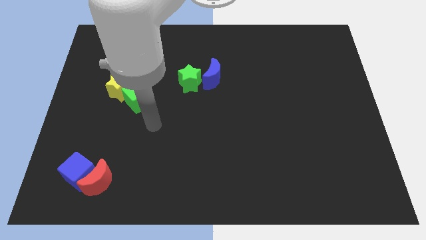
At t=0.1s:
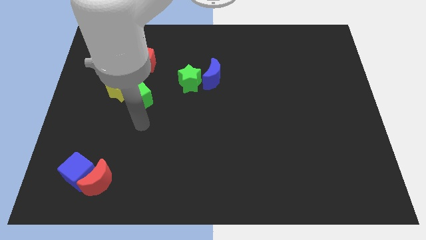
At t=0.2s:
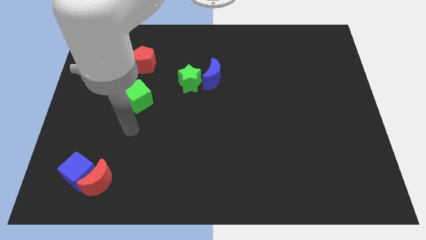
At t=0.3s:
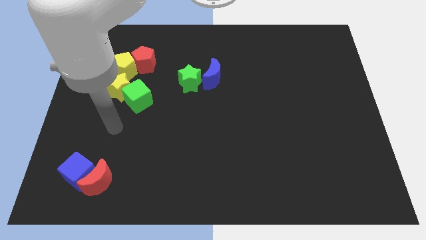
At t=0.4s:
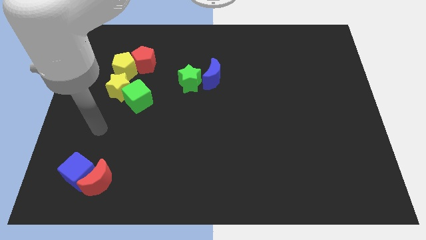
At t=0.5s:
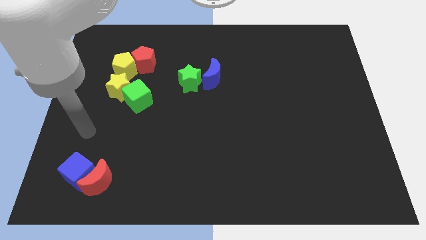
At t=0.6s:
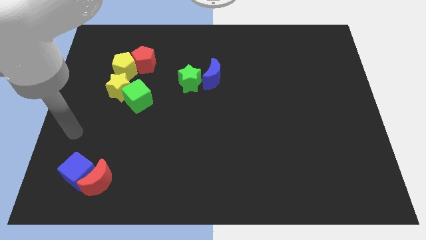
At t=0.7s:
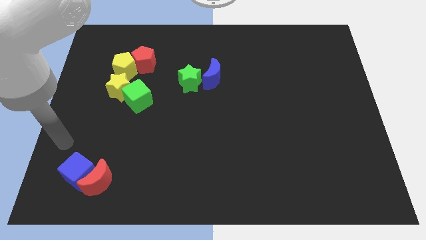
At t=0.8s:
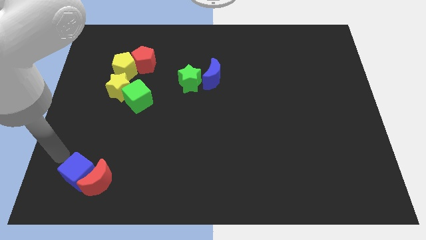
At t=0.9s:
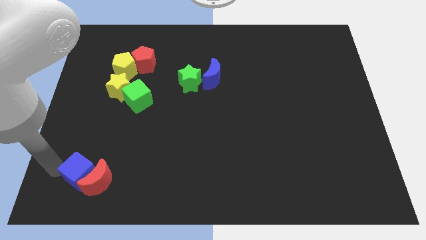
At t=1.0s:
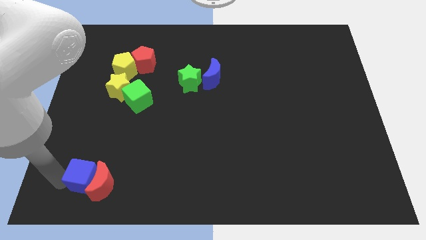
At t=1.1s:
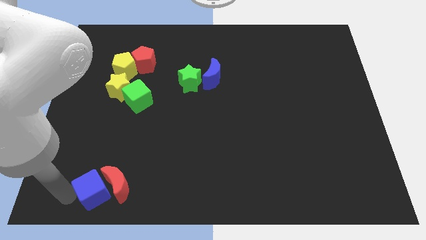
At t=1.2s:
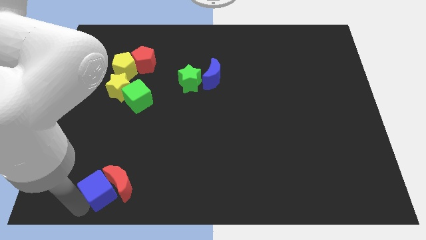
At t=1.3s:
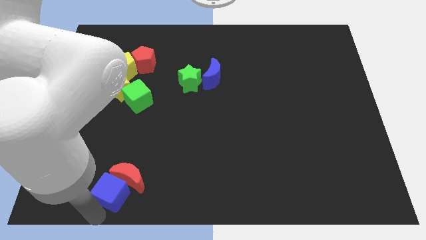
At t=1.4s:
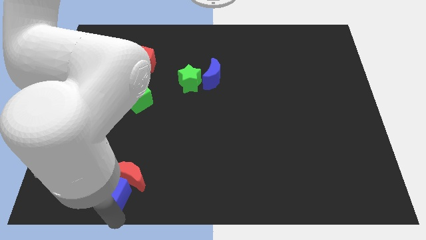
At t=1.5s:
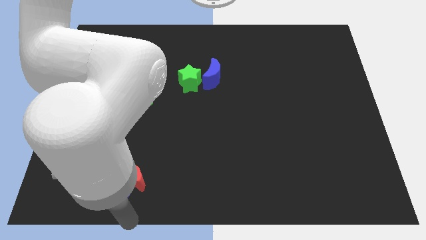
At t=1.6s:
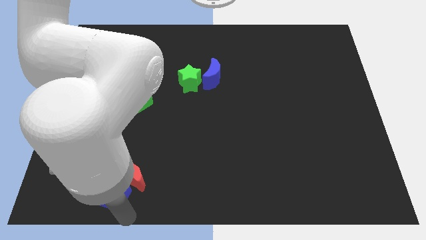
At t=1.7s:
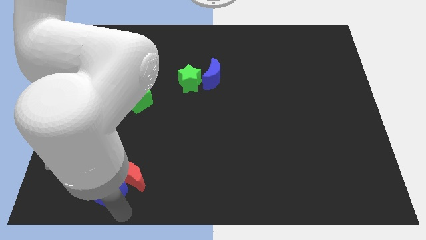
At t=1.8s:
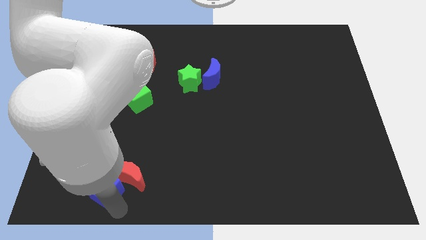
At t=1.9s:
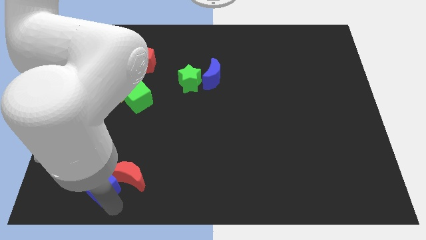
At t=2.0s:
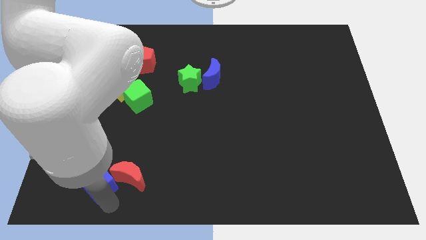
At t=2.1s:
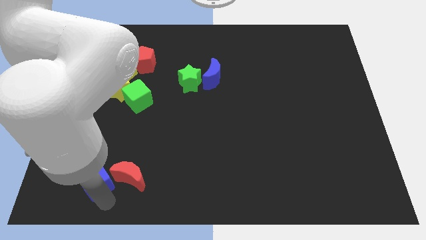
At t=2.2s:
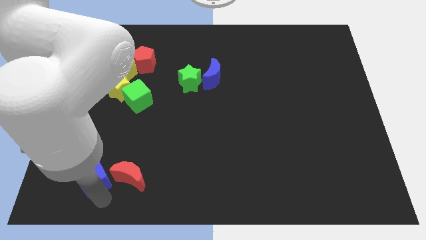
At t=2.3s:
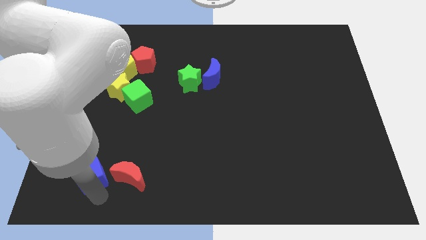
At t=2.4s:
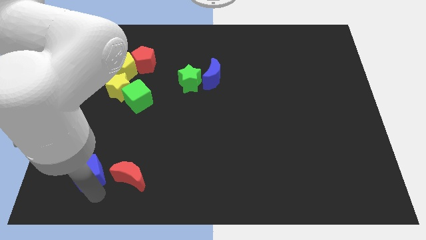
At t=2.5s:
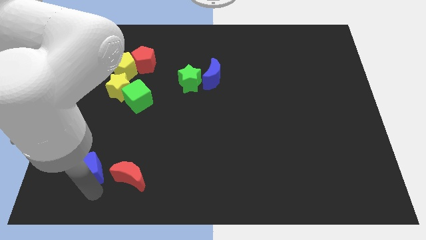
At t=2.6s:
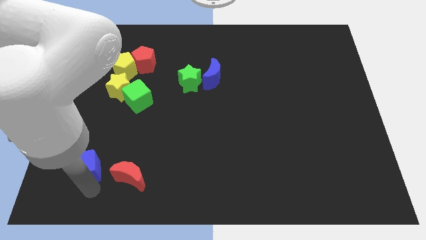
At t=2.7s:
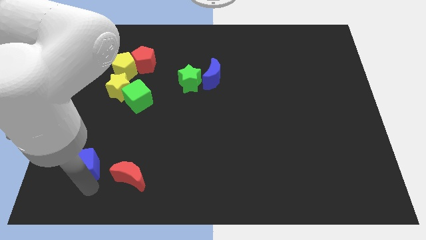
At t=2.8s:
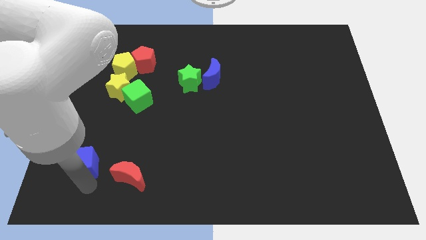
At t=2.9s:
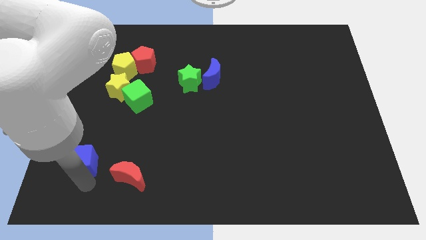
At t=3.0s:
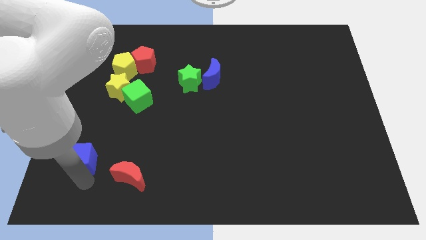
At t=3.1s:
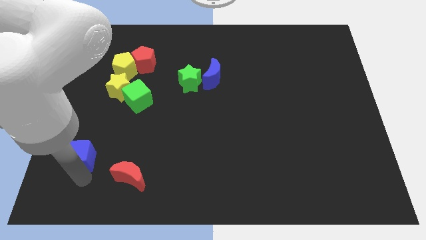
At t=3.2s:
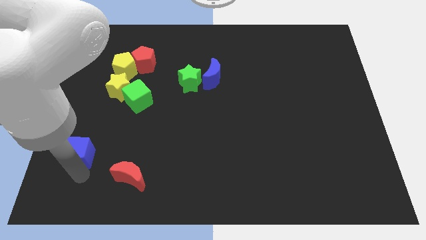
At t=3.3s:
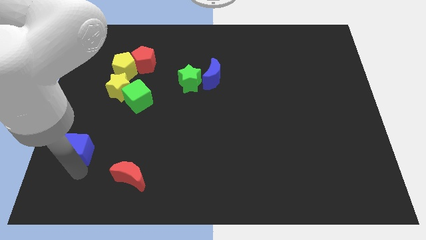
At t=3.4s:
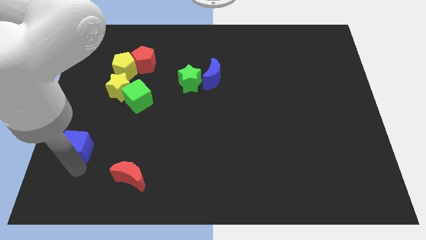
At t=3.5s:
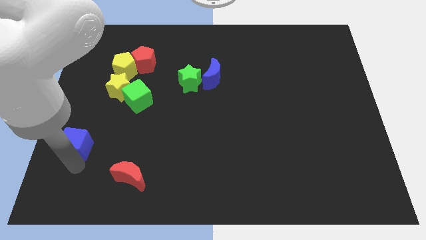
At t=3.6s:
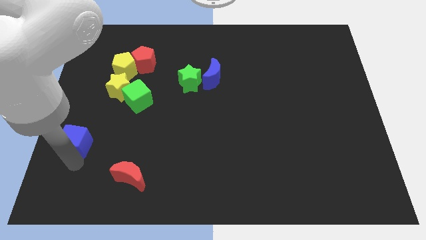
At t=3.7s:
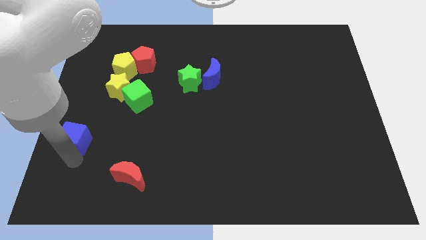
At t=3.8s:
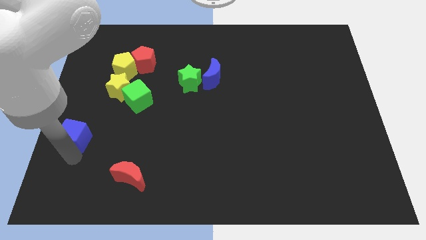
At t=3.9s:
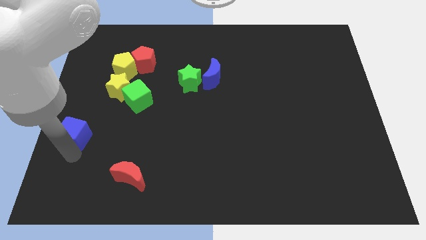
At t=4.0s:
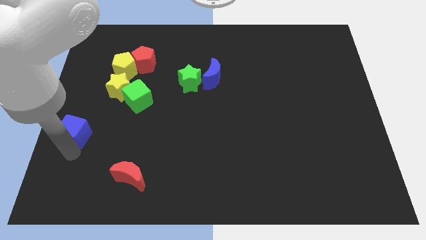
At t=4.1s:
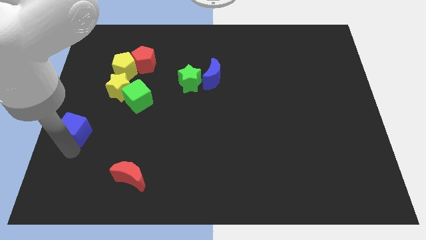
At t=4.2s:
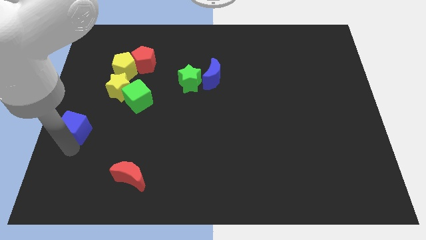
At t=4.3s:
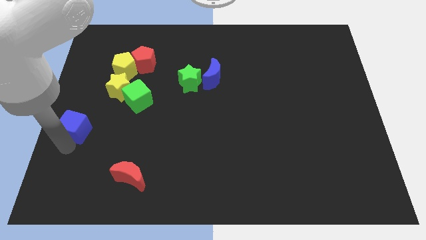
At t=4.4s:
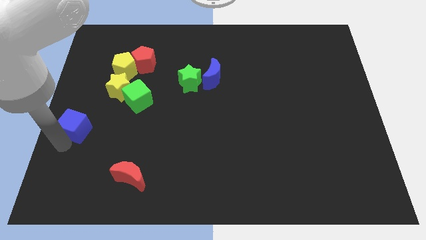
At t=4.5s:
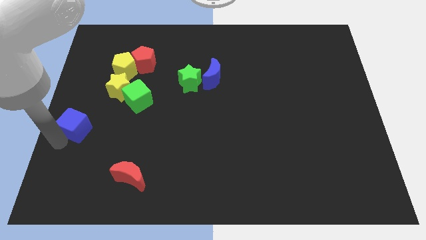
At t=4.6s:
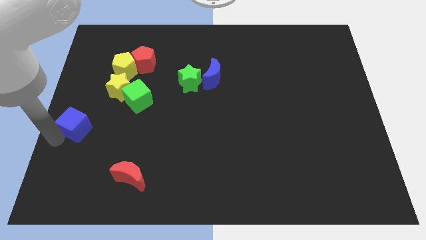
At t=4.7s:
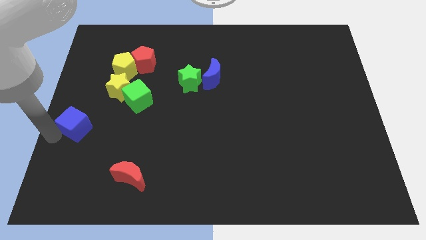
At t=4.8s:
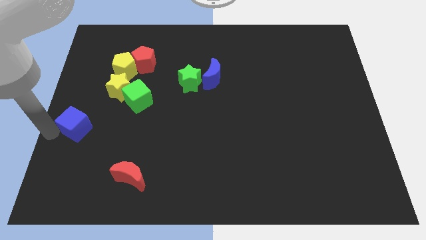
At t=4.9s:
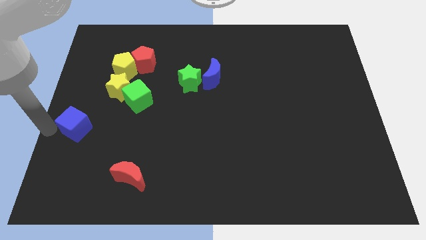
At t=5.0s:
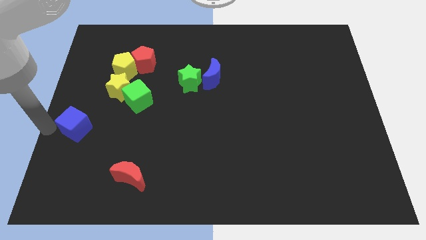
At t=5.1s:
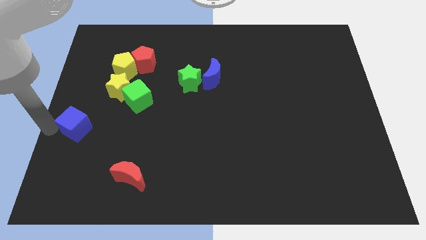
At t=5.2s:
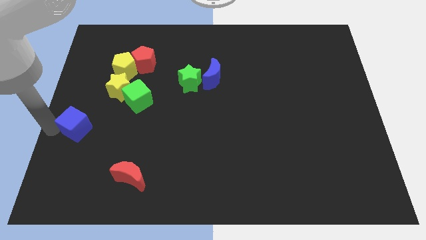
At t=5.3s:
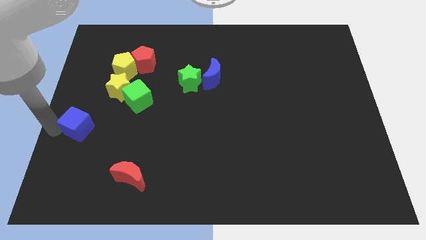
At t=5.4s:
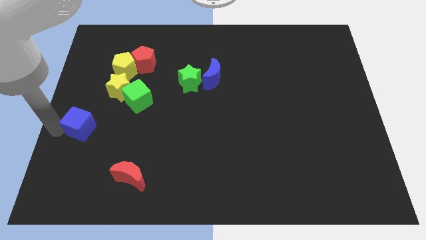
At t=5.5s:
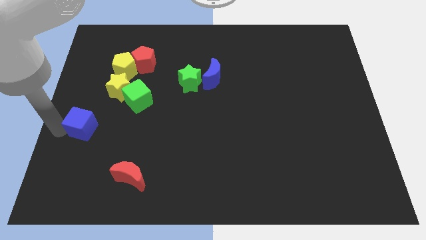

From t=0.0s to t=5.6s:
push the blue cube to the bottom left of the yellow star

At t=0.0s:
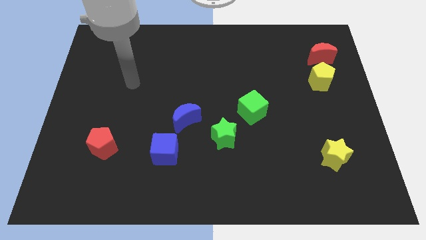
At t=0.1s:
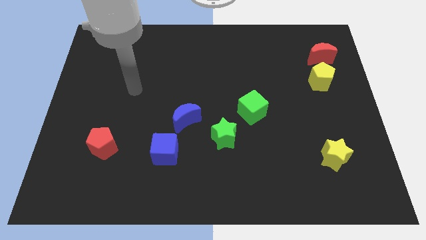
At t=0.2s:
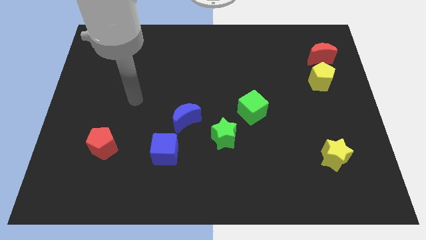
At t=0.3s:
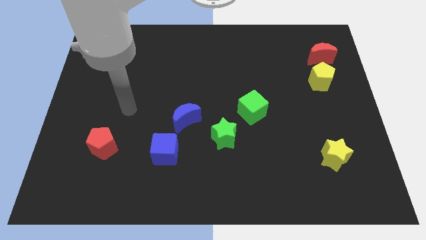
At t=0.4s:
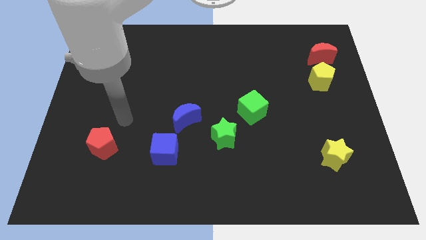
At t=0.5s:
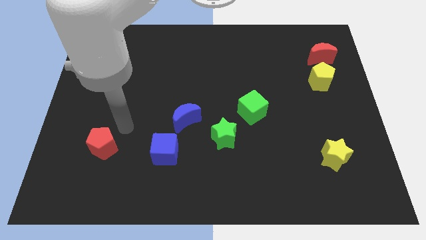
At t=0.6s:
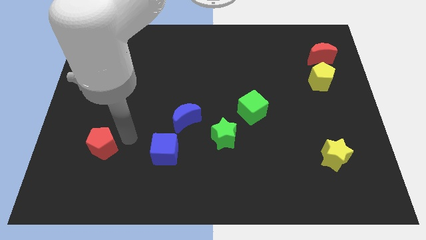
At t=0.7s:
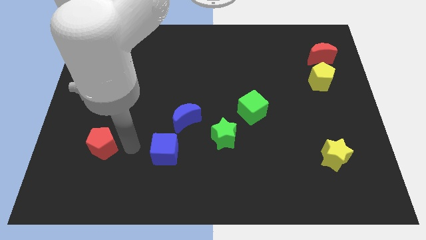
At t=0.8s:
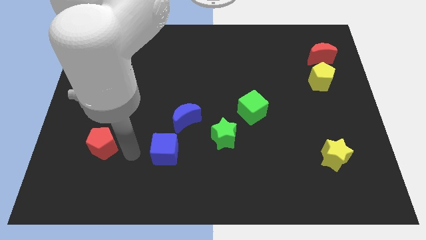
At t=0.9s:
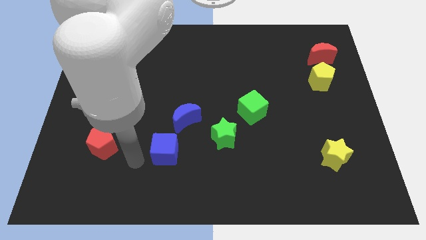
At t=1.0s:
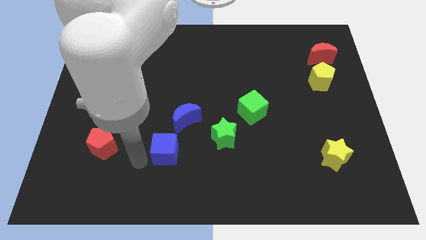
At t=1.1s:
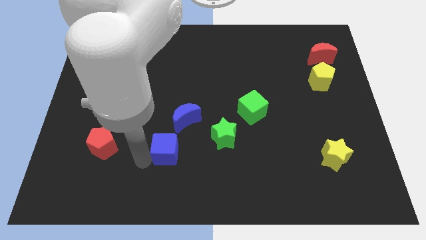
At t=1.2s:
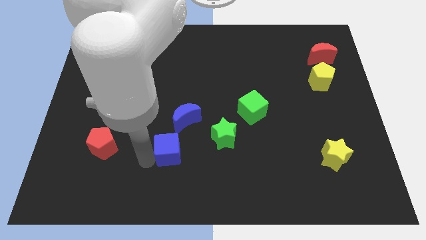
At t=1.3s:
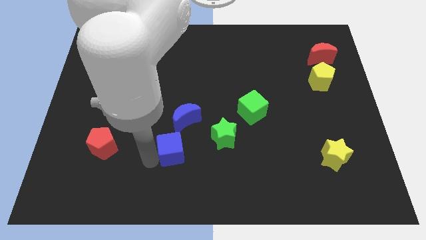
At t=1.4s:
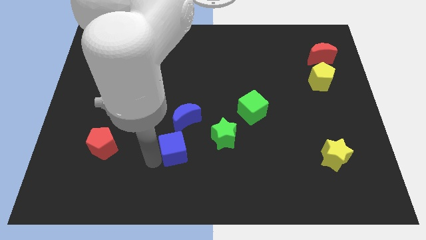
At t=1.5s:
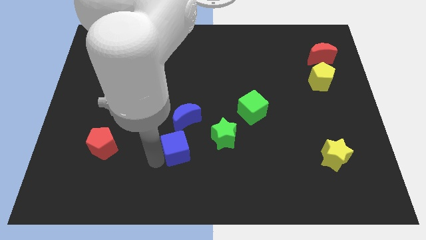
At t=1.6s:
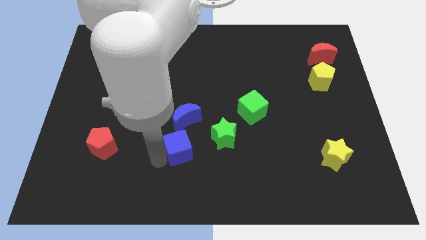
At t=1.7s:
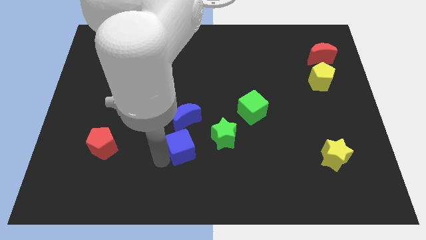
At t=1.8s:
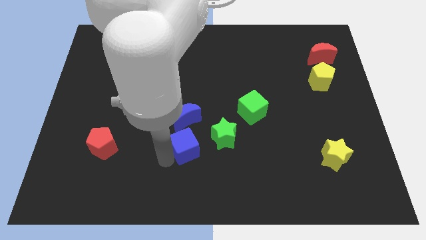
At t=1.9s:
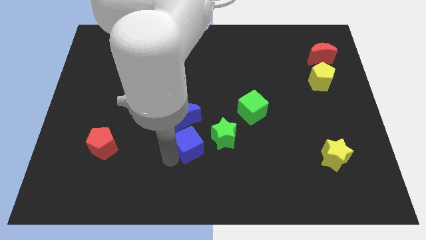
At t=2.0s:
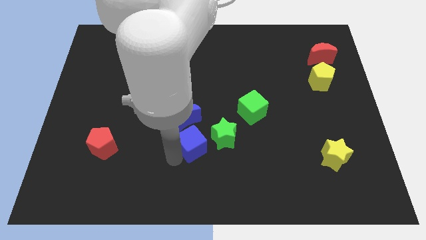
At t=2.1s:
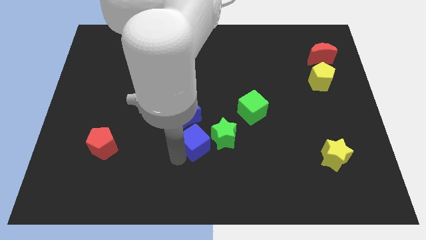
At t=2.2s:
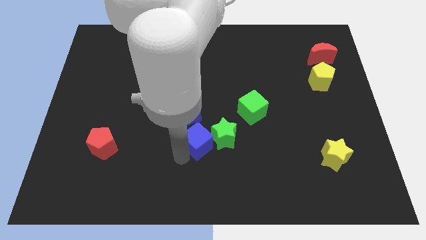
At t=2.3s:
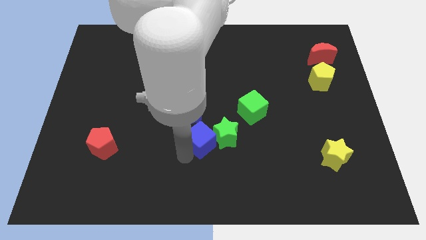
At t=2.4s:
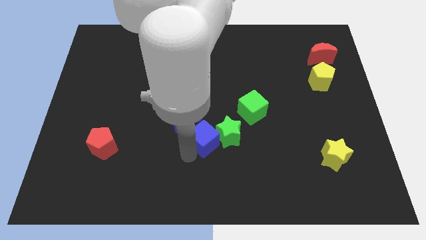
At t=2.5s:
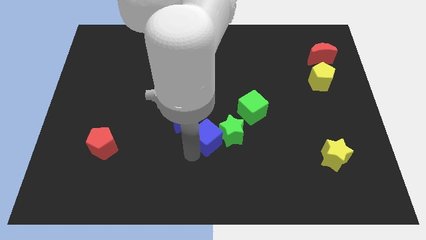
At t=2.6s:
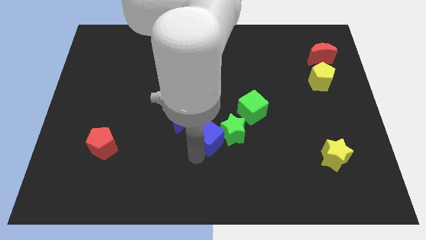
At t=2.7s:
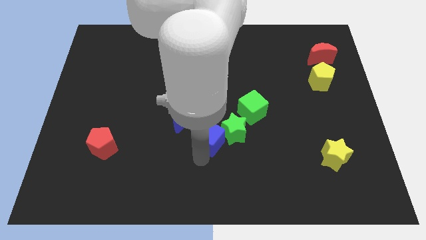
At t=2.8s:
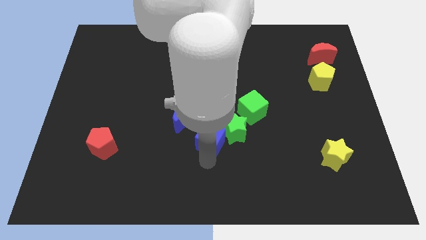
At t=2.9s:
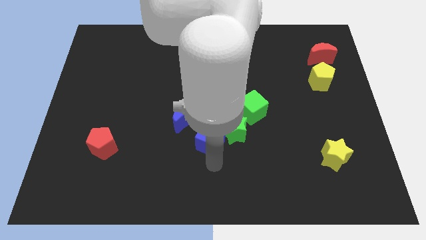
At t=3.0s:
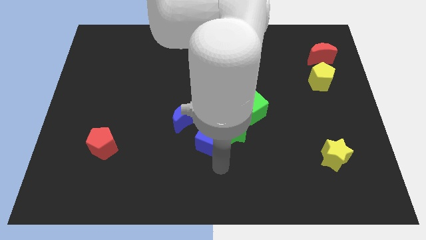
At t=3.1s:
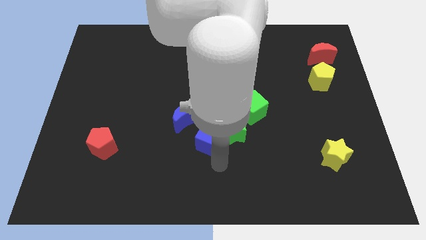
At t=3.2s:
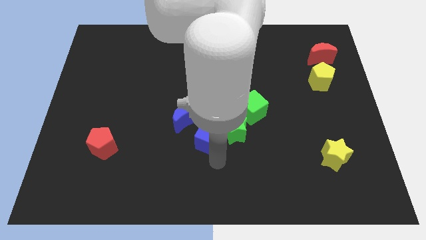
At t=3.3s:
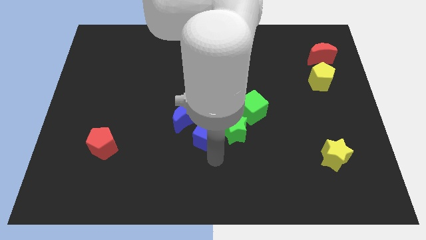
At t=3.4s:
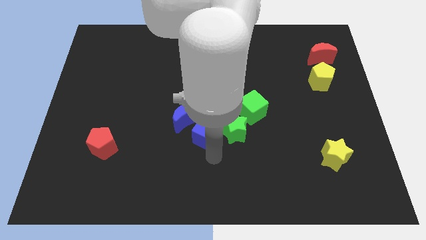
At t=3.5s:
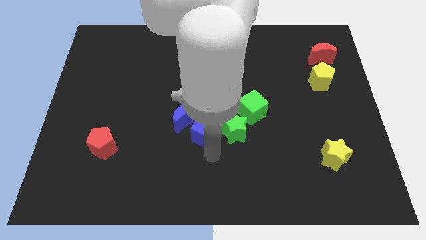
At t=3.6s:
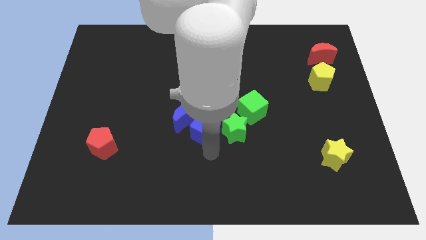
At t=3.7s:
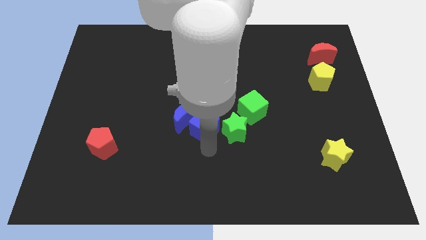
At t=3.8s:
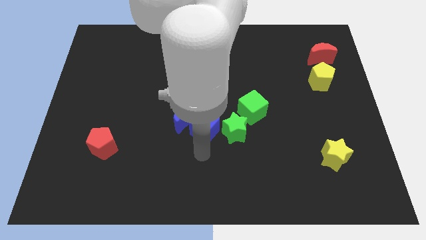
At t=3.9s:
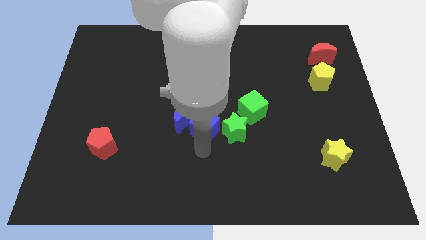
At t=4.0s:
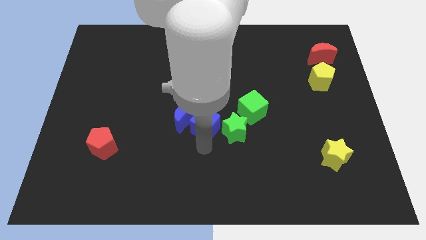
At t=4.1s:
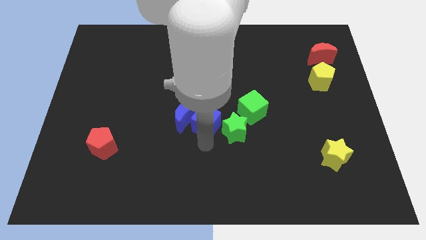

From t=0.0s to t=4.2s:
move the blue cube to the top right side of the blue moon
